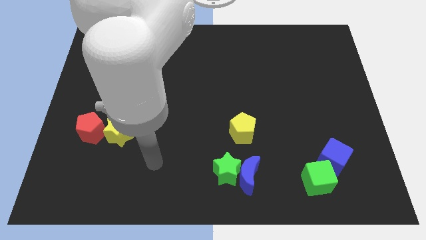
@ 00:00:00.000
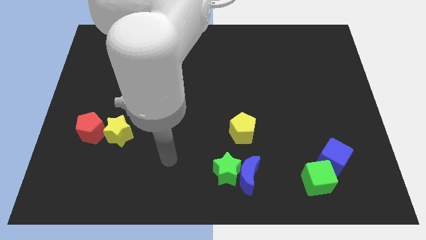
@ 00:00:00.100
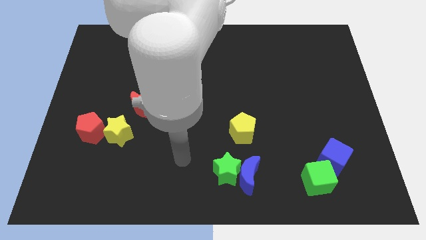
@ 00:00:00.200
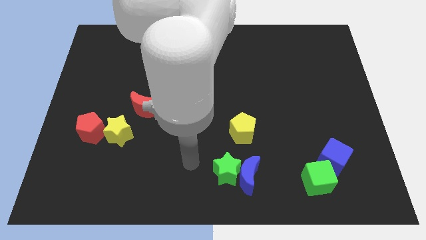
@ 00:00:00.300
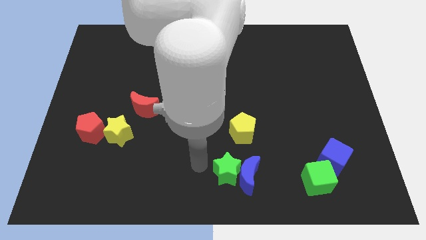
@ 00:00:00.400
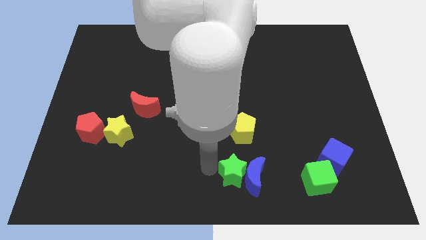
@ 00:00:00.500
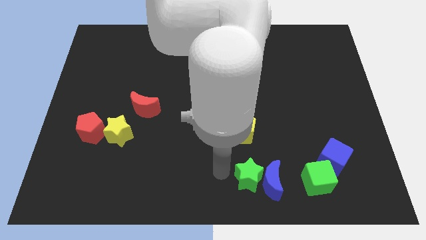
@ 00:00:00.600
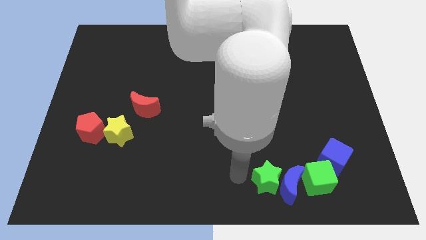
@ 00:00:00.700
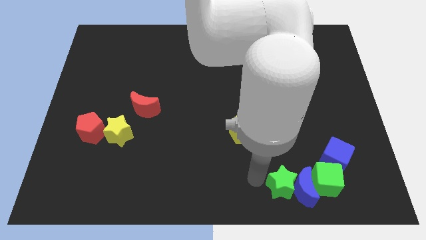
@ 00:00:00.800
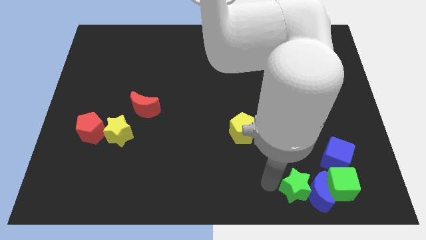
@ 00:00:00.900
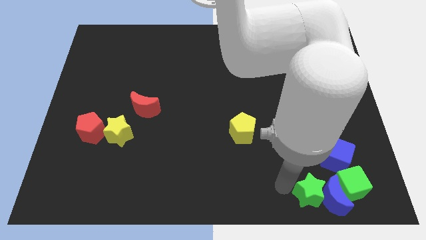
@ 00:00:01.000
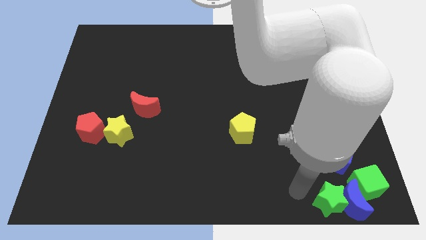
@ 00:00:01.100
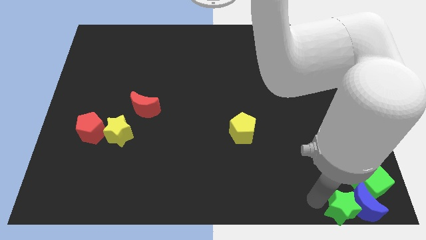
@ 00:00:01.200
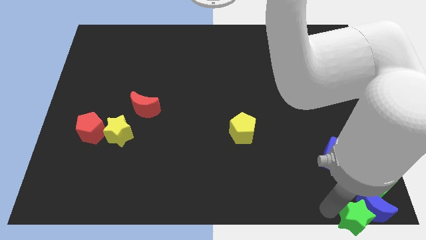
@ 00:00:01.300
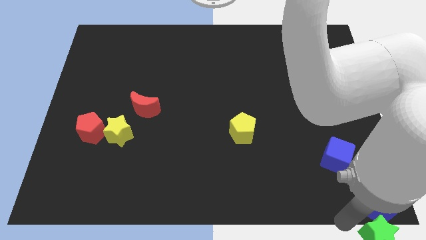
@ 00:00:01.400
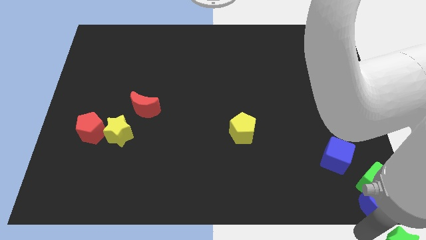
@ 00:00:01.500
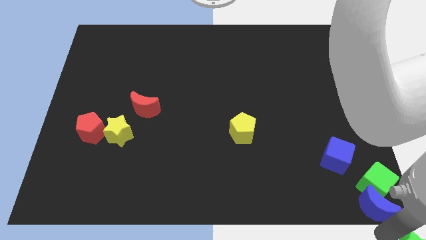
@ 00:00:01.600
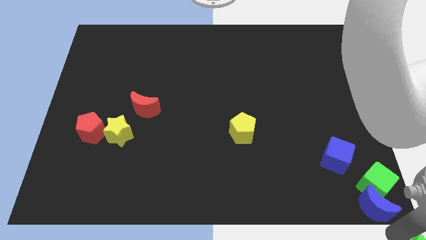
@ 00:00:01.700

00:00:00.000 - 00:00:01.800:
move the blue moon away from the green star

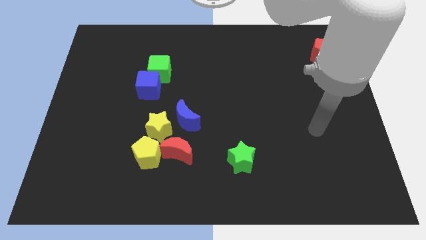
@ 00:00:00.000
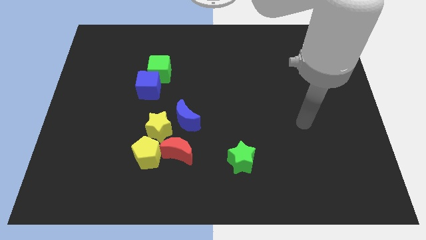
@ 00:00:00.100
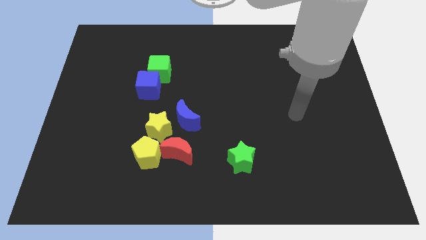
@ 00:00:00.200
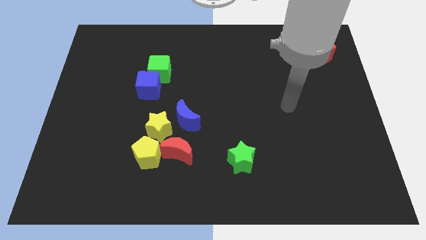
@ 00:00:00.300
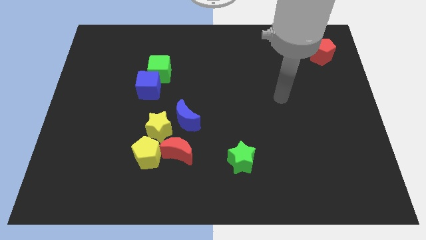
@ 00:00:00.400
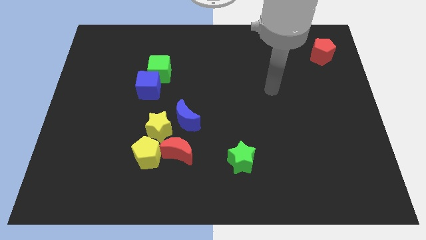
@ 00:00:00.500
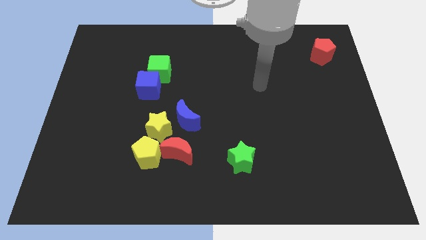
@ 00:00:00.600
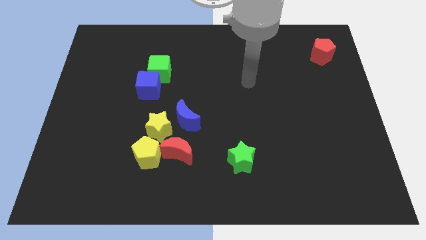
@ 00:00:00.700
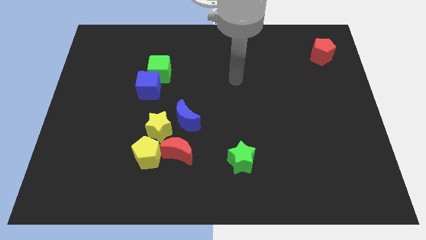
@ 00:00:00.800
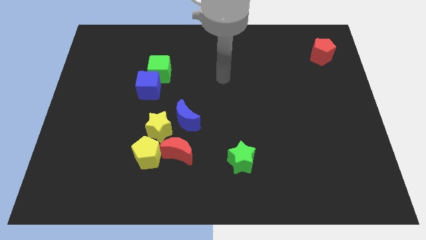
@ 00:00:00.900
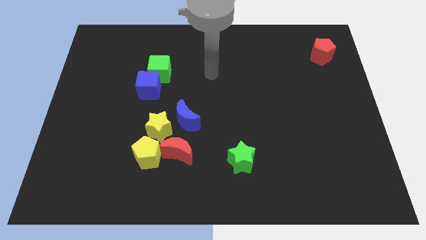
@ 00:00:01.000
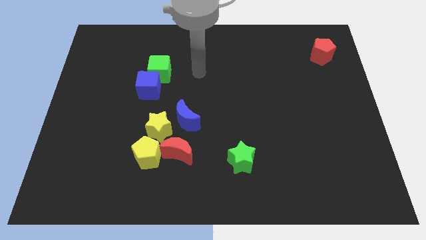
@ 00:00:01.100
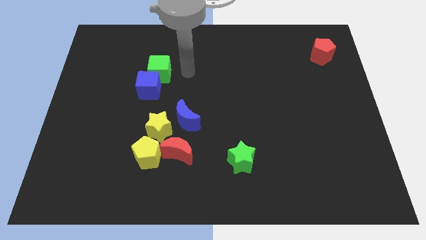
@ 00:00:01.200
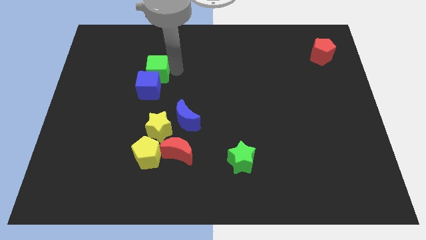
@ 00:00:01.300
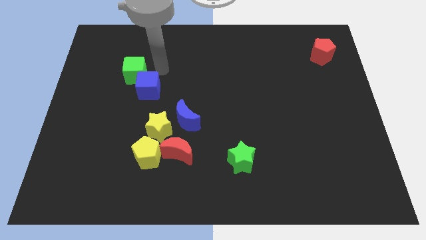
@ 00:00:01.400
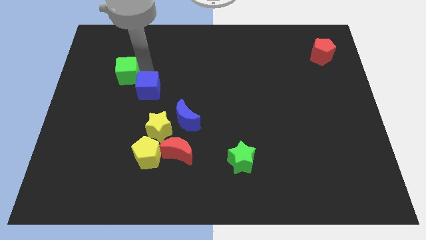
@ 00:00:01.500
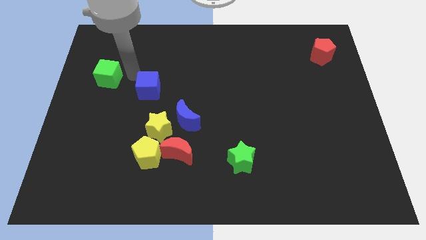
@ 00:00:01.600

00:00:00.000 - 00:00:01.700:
separate the blue cube from the green cube

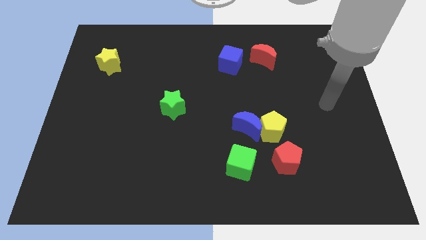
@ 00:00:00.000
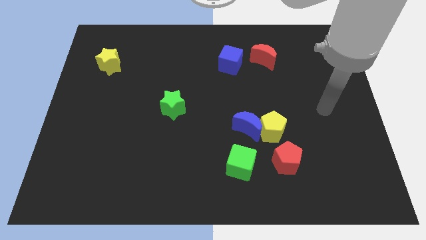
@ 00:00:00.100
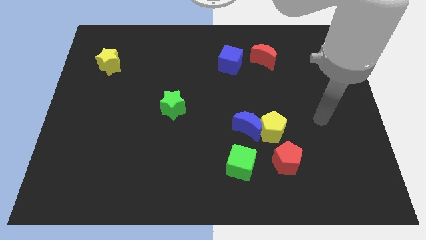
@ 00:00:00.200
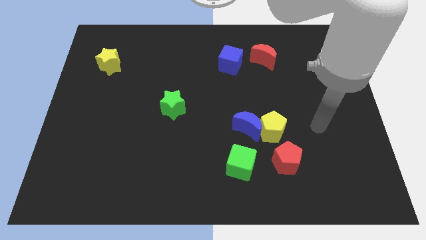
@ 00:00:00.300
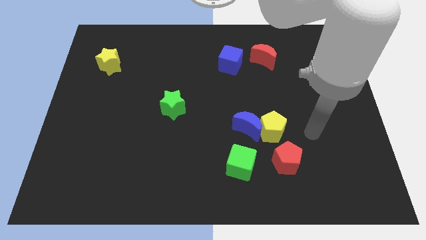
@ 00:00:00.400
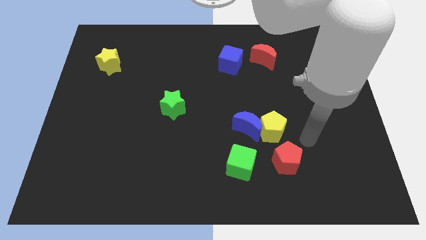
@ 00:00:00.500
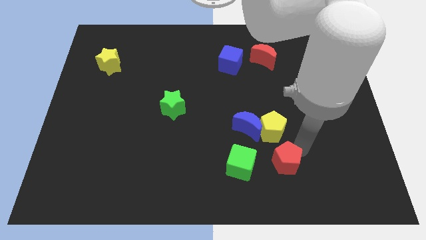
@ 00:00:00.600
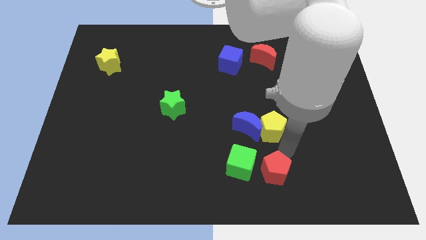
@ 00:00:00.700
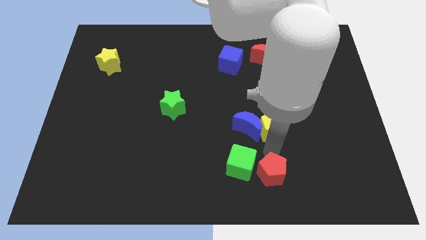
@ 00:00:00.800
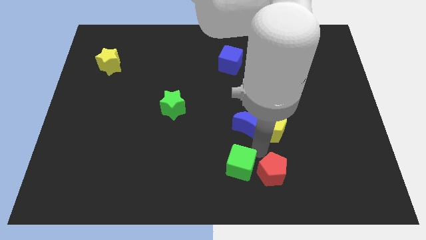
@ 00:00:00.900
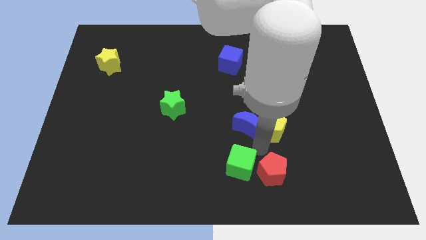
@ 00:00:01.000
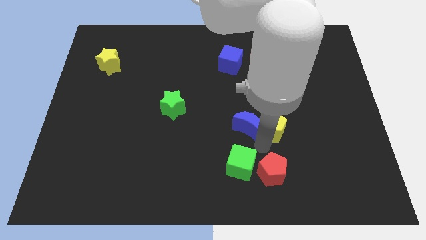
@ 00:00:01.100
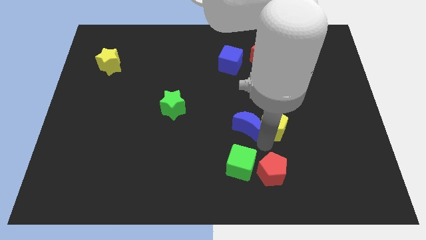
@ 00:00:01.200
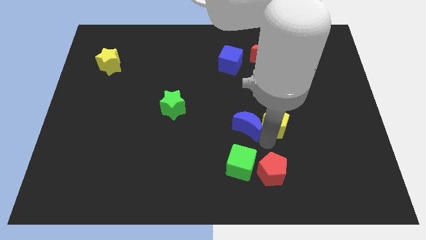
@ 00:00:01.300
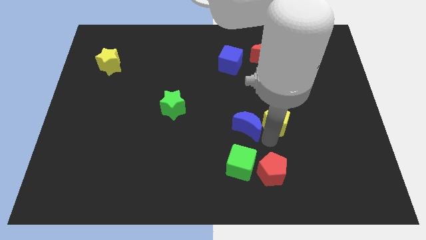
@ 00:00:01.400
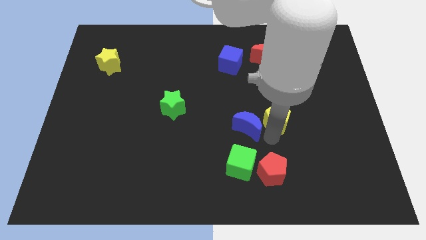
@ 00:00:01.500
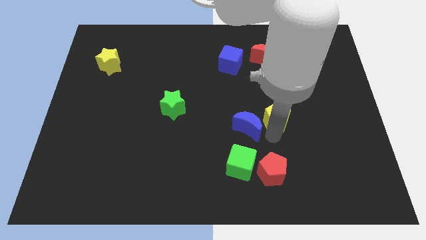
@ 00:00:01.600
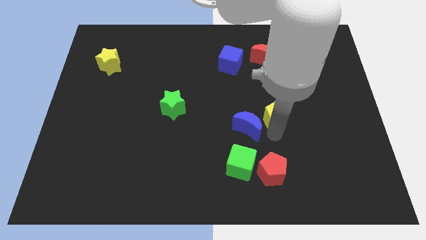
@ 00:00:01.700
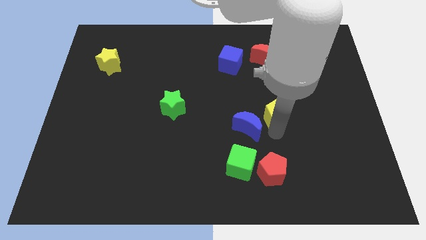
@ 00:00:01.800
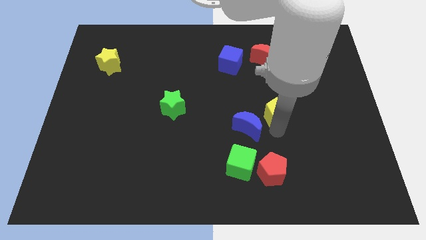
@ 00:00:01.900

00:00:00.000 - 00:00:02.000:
move the yellow pentagon away from the blue moon and red pentagon

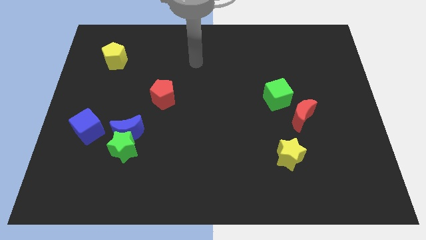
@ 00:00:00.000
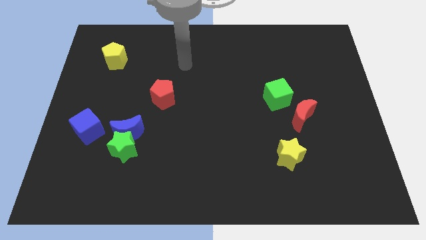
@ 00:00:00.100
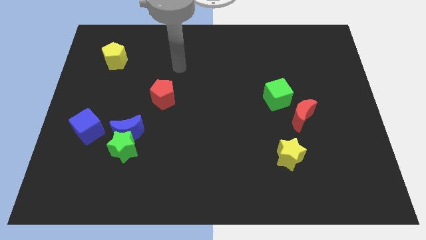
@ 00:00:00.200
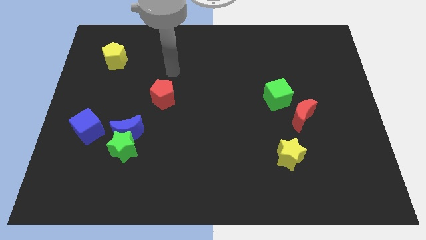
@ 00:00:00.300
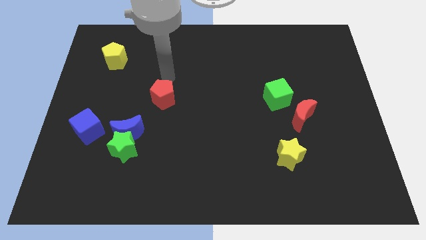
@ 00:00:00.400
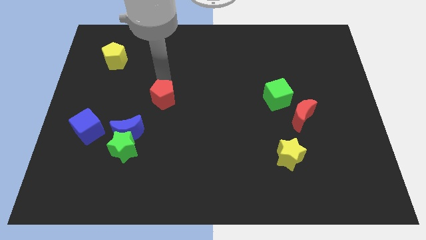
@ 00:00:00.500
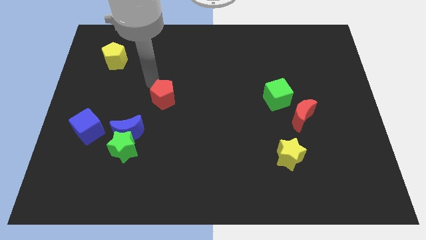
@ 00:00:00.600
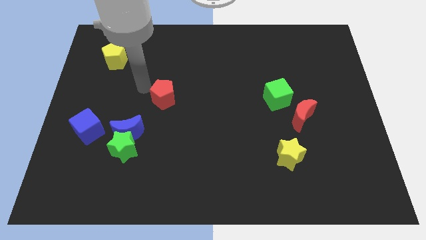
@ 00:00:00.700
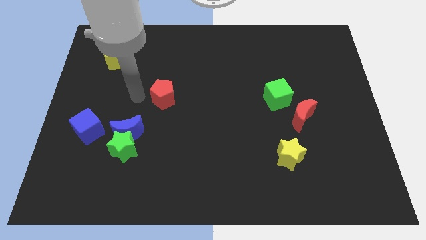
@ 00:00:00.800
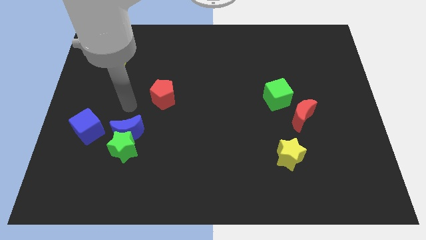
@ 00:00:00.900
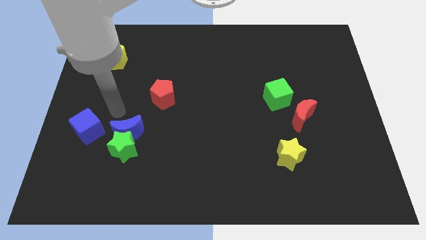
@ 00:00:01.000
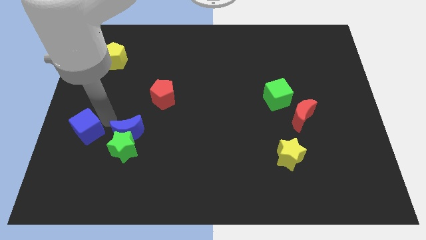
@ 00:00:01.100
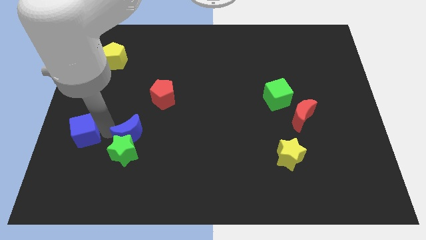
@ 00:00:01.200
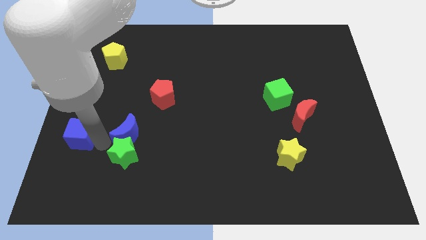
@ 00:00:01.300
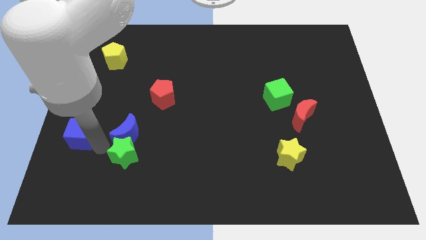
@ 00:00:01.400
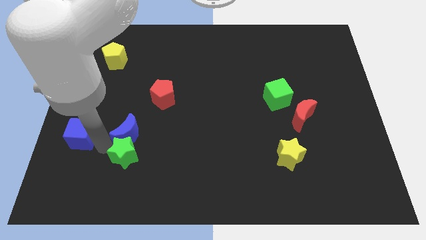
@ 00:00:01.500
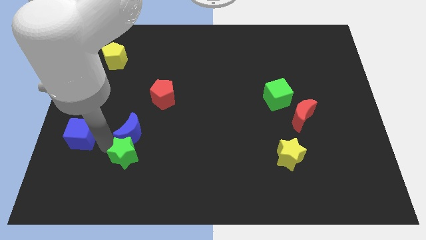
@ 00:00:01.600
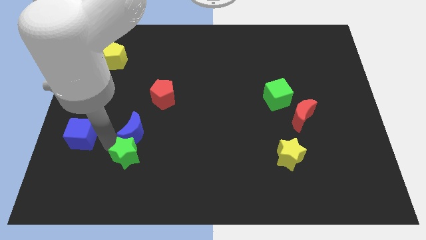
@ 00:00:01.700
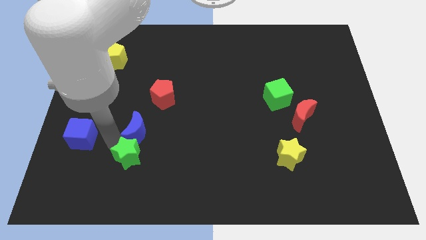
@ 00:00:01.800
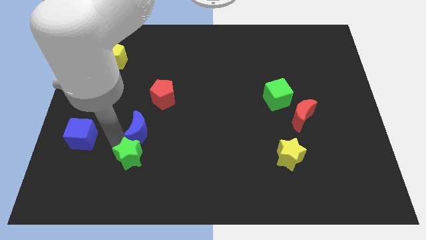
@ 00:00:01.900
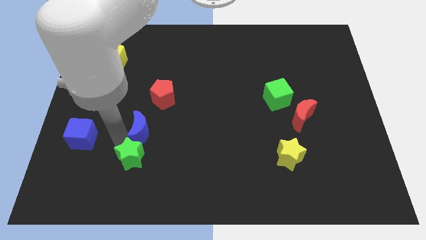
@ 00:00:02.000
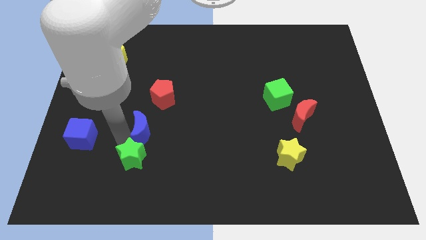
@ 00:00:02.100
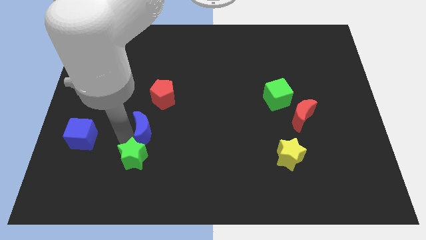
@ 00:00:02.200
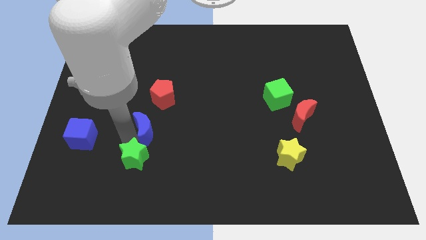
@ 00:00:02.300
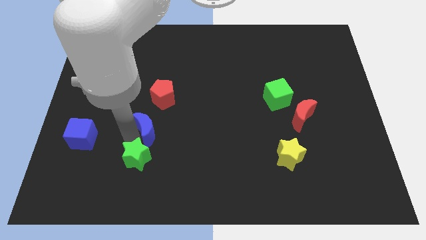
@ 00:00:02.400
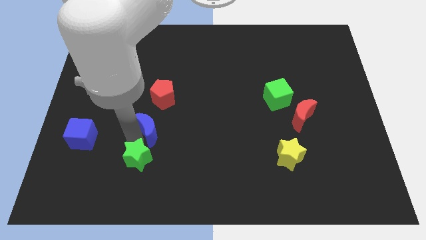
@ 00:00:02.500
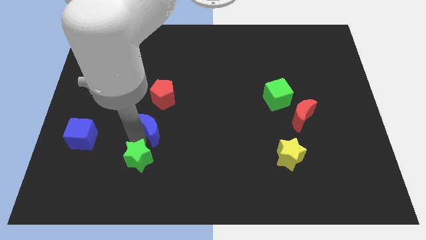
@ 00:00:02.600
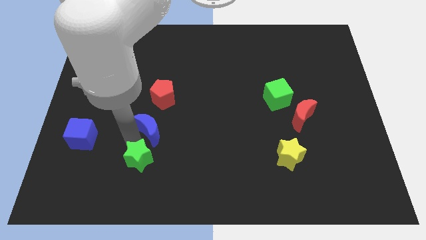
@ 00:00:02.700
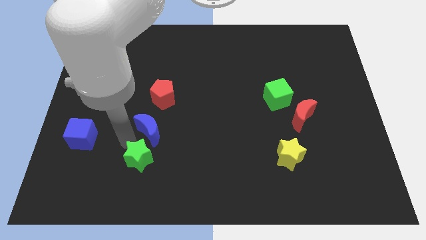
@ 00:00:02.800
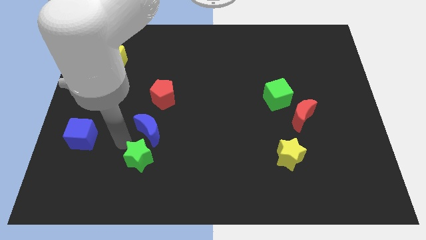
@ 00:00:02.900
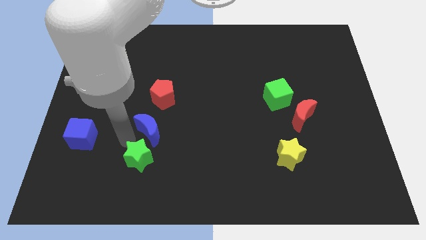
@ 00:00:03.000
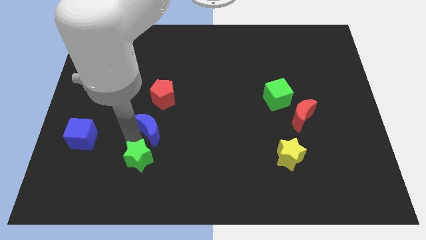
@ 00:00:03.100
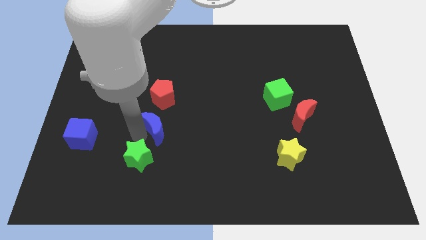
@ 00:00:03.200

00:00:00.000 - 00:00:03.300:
move the blue moon away from the green star and blue cube

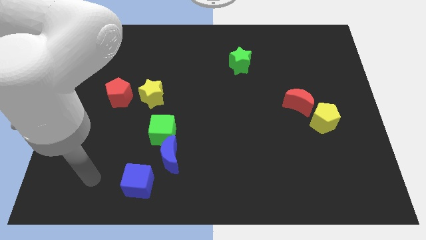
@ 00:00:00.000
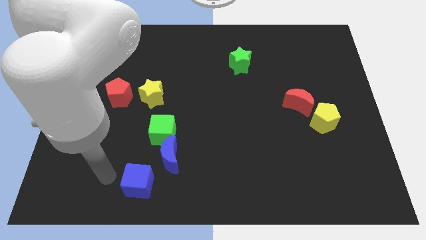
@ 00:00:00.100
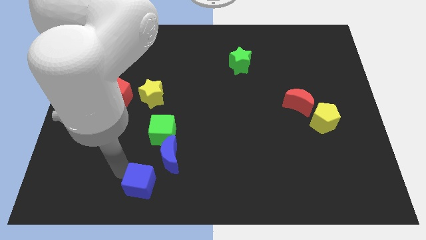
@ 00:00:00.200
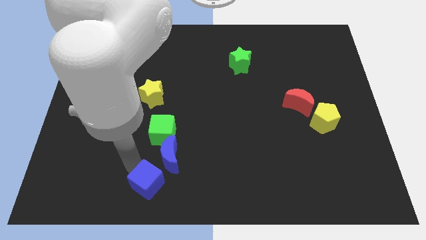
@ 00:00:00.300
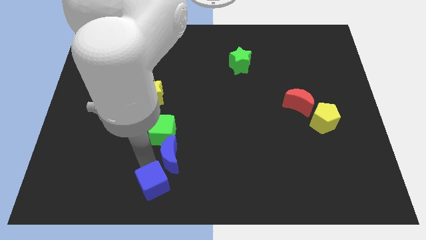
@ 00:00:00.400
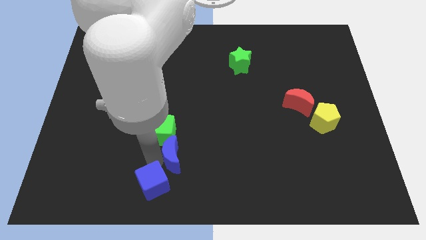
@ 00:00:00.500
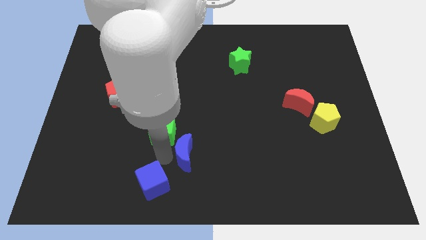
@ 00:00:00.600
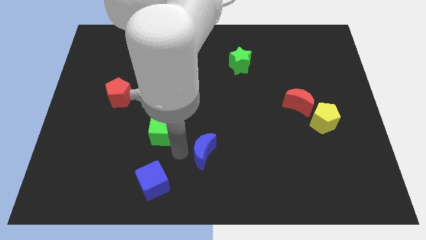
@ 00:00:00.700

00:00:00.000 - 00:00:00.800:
pull the green cube apart from the blue moon
